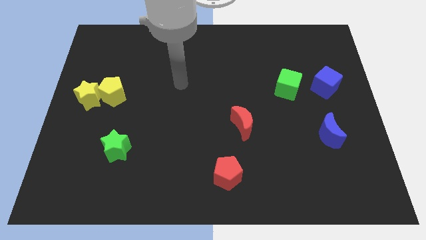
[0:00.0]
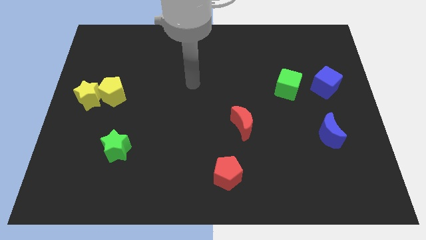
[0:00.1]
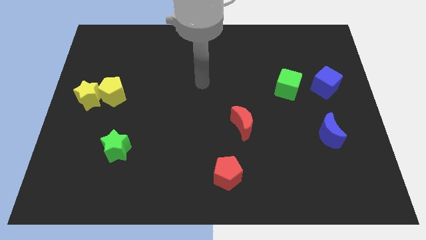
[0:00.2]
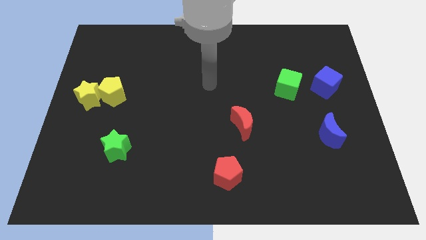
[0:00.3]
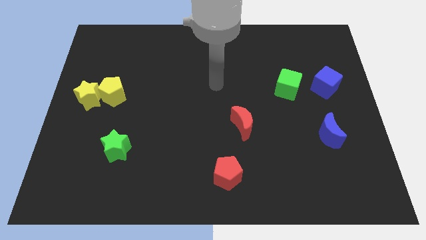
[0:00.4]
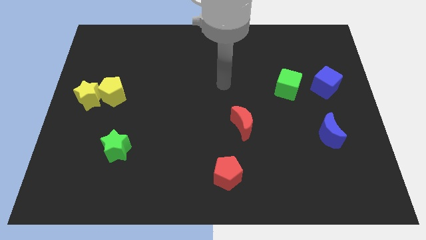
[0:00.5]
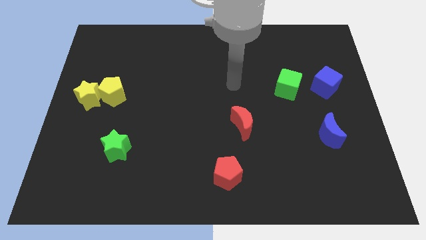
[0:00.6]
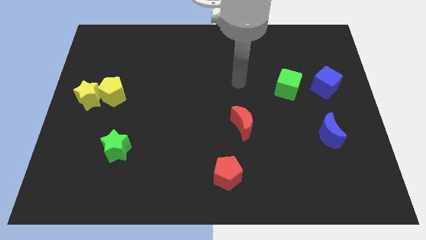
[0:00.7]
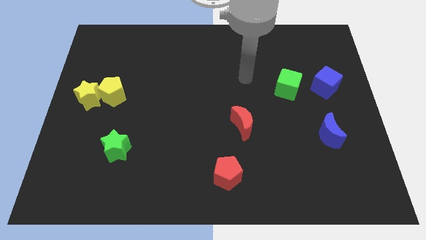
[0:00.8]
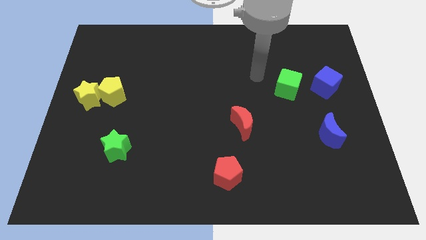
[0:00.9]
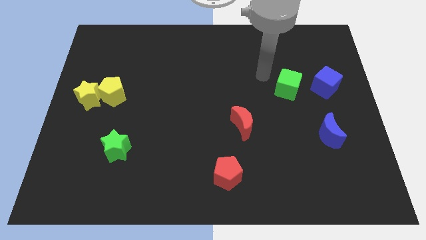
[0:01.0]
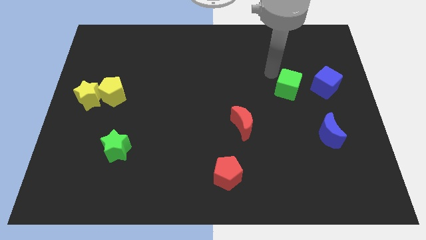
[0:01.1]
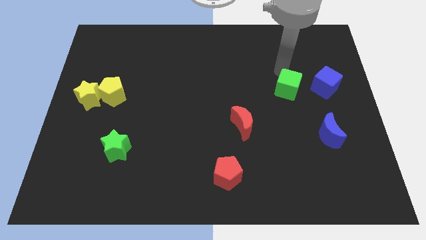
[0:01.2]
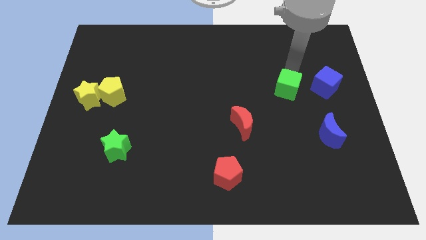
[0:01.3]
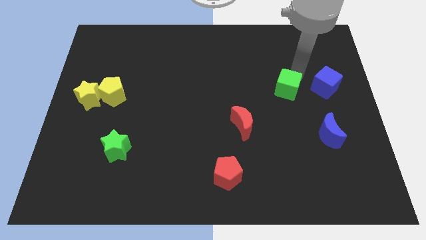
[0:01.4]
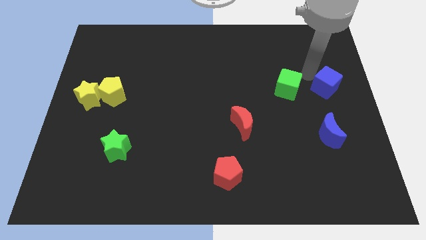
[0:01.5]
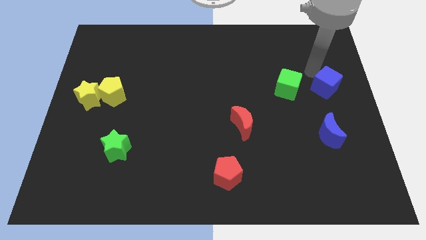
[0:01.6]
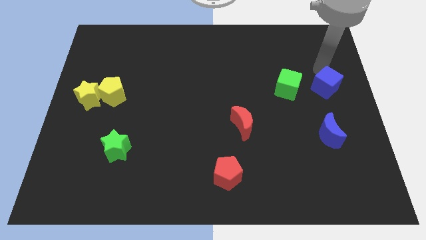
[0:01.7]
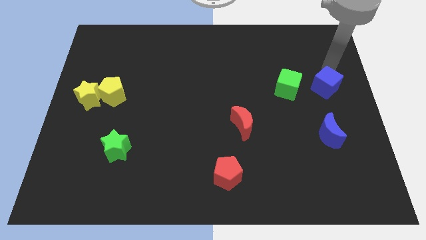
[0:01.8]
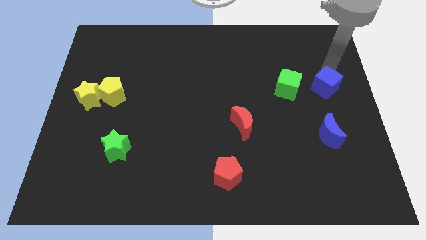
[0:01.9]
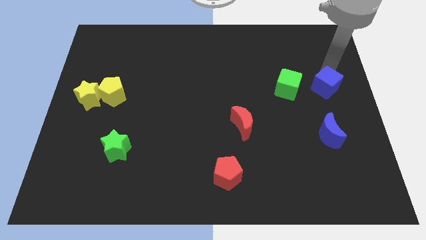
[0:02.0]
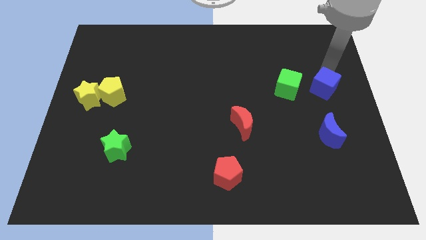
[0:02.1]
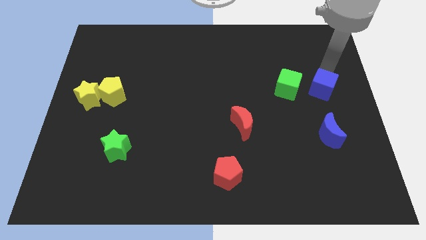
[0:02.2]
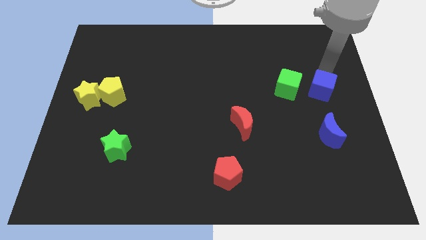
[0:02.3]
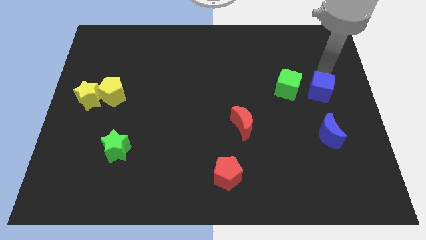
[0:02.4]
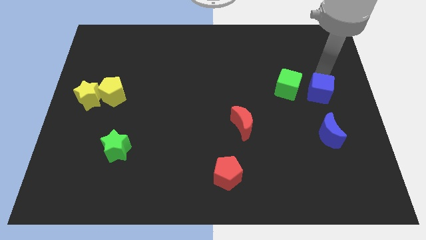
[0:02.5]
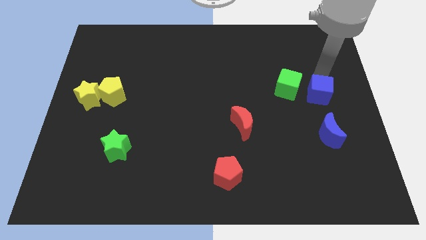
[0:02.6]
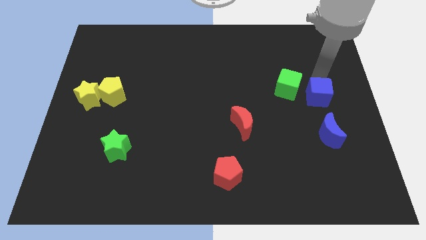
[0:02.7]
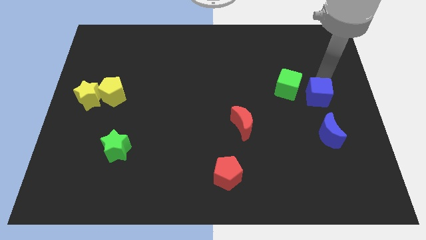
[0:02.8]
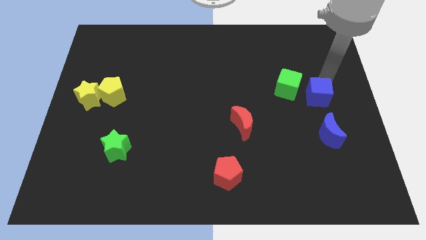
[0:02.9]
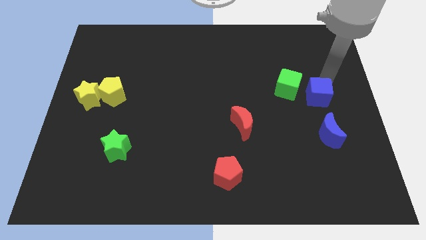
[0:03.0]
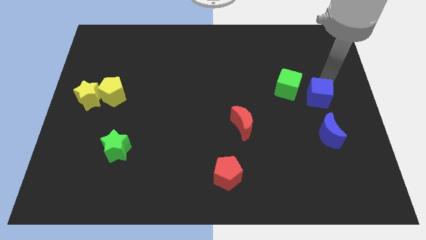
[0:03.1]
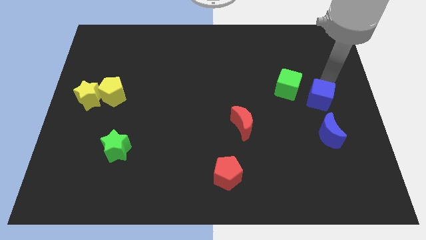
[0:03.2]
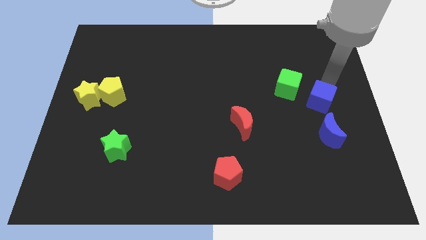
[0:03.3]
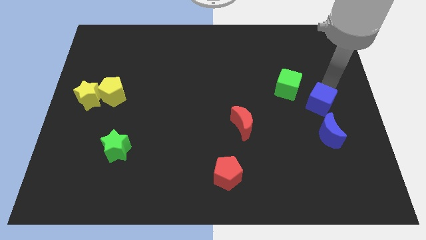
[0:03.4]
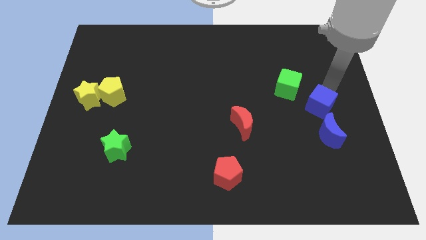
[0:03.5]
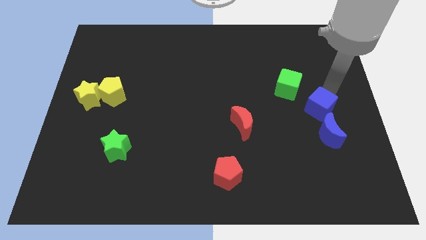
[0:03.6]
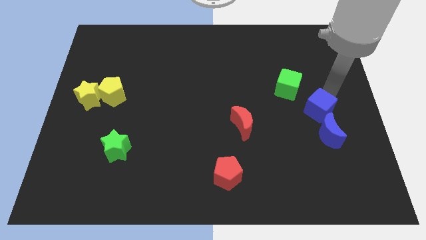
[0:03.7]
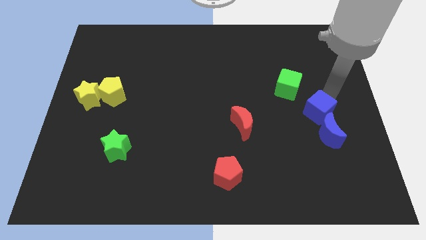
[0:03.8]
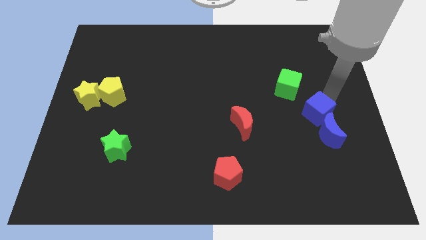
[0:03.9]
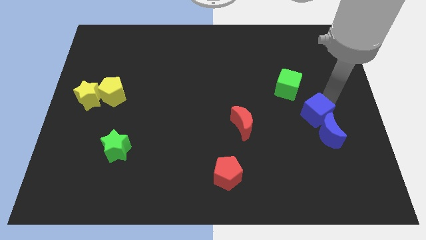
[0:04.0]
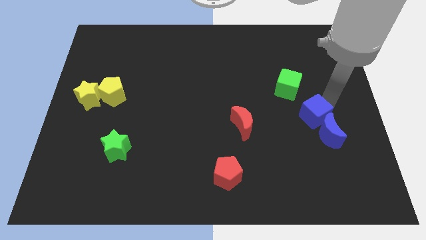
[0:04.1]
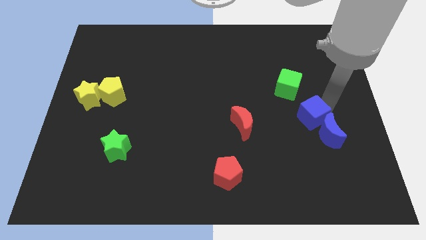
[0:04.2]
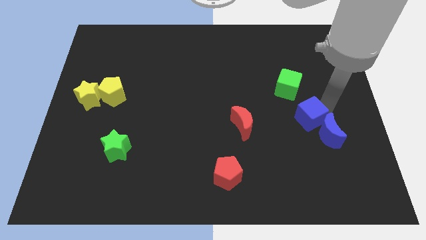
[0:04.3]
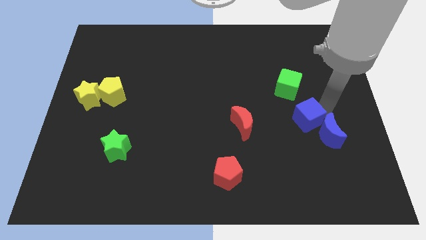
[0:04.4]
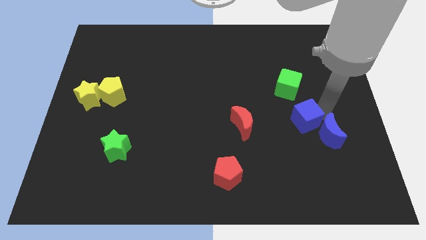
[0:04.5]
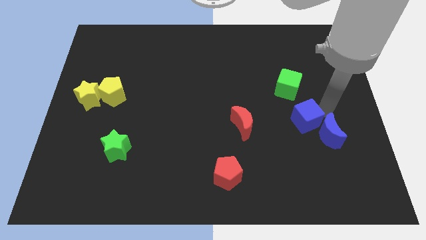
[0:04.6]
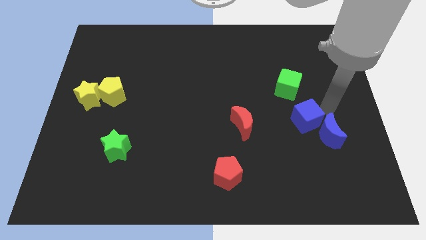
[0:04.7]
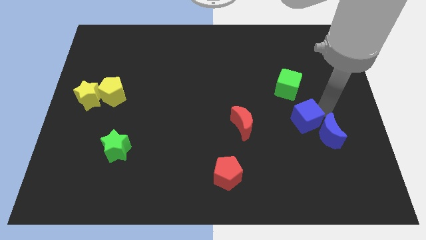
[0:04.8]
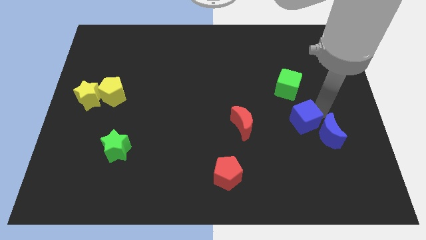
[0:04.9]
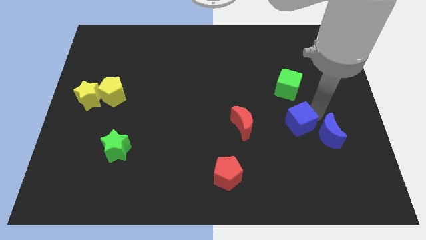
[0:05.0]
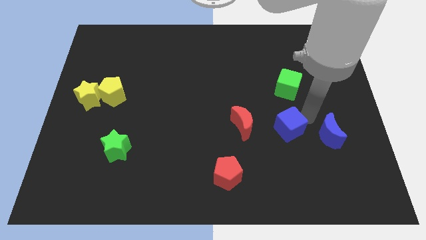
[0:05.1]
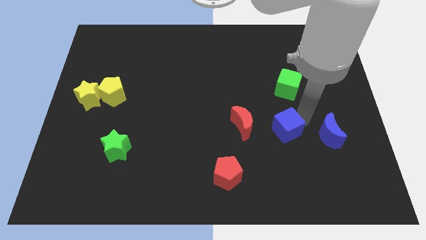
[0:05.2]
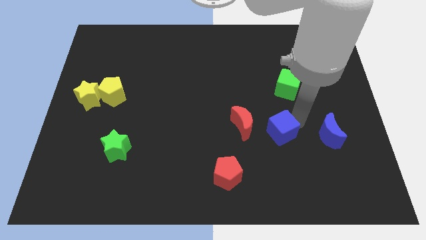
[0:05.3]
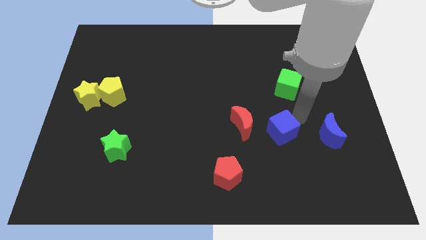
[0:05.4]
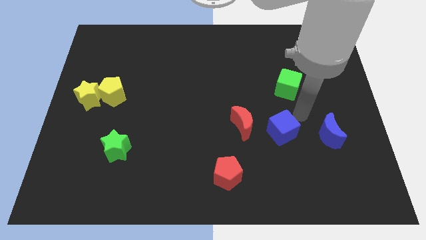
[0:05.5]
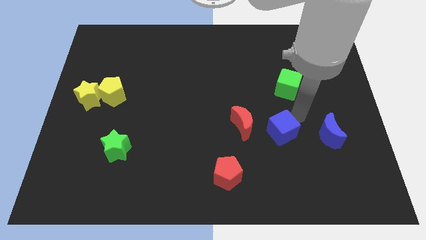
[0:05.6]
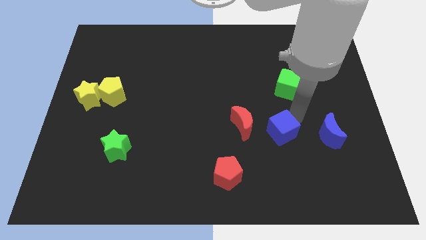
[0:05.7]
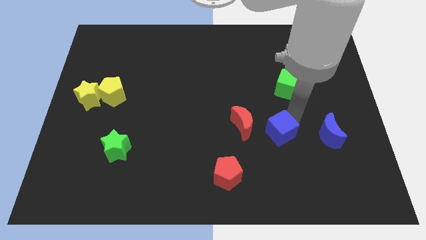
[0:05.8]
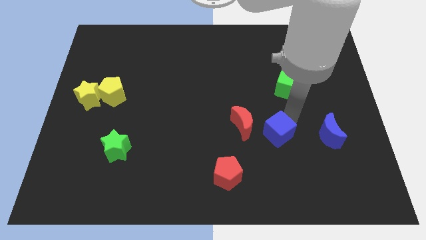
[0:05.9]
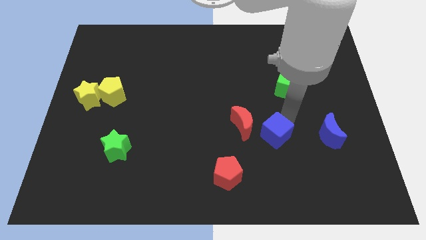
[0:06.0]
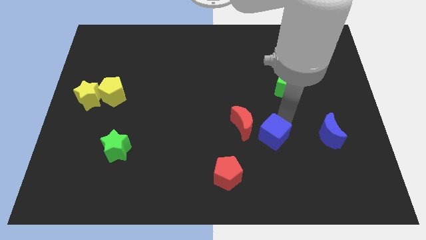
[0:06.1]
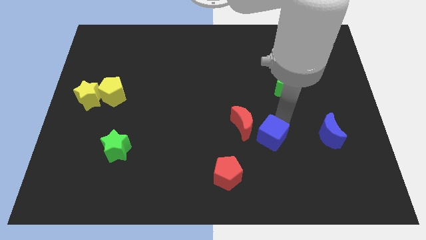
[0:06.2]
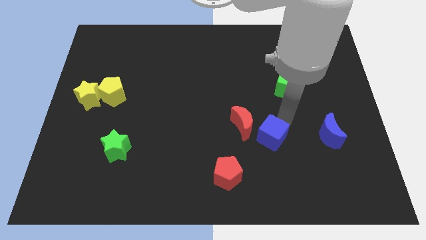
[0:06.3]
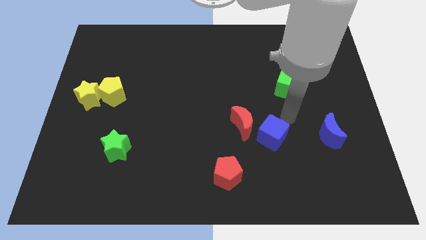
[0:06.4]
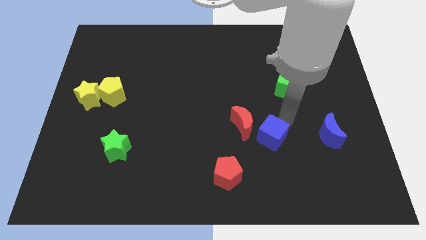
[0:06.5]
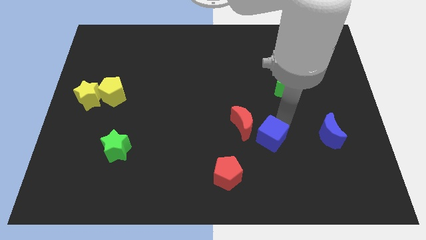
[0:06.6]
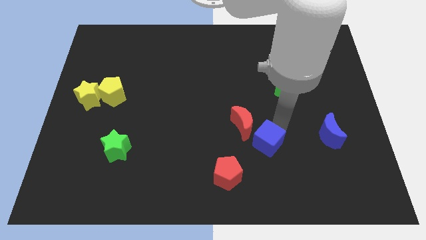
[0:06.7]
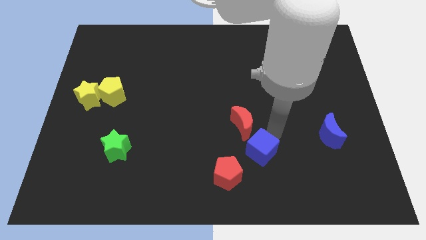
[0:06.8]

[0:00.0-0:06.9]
put the blue cube below the red moon
